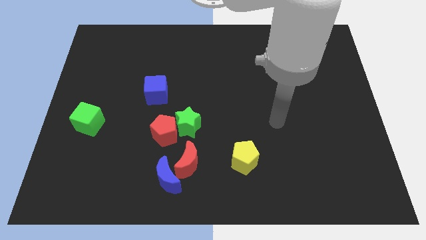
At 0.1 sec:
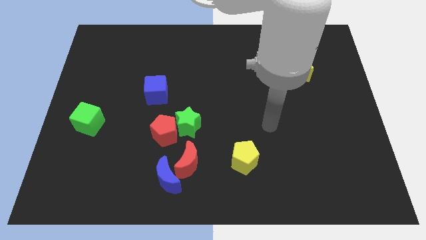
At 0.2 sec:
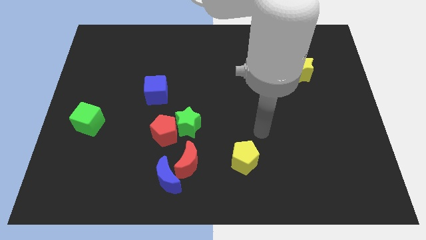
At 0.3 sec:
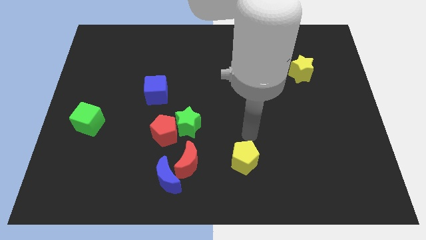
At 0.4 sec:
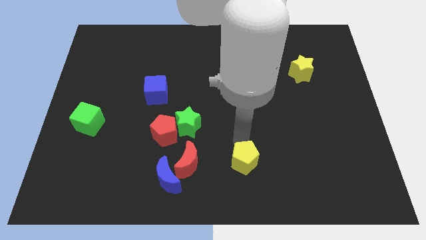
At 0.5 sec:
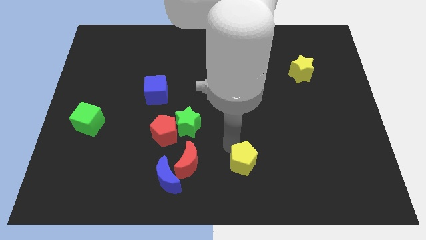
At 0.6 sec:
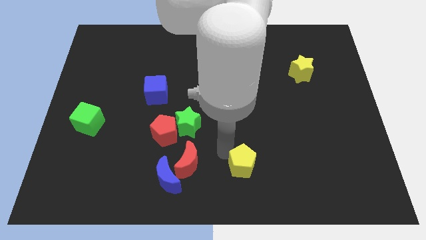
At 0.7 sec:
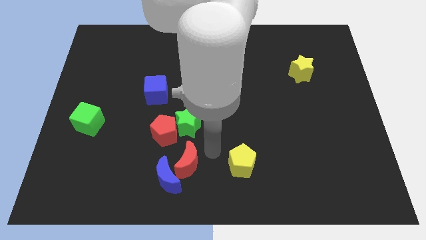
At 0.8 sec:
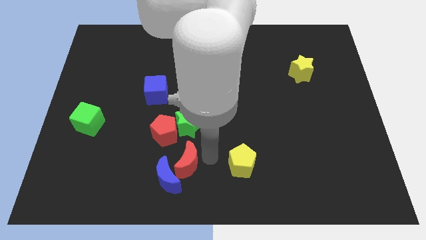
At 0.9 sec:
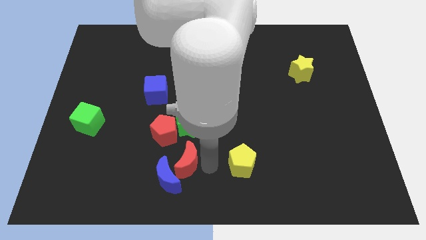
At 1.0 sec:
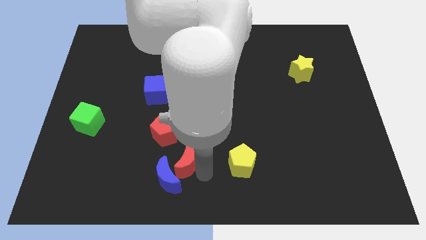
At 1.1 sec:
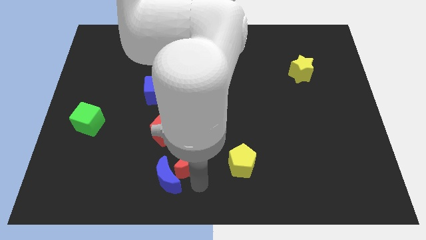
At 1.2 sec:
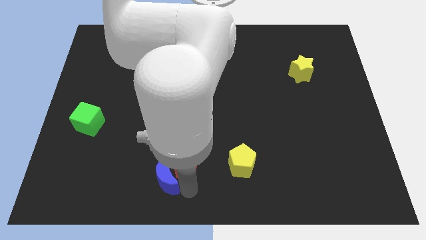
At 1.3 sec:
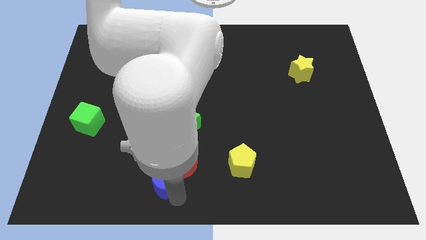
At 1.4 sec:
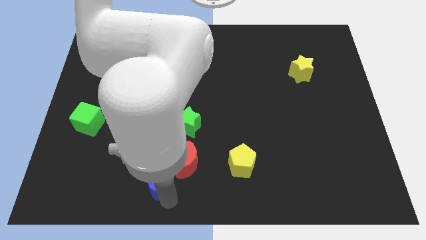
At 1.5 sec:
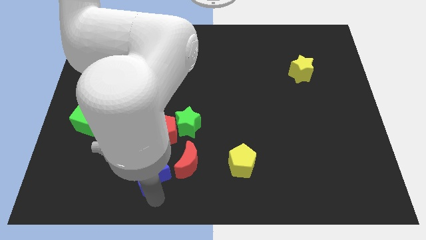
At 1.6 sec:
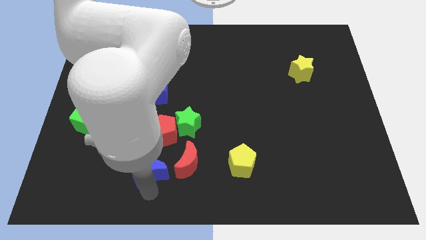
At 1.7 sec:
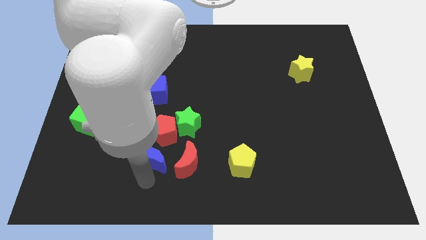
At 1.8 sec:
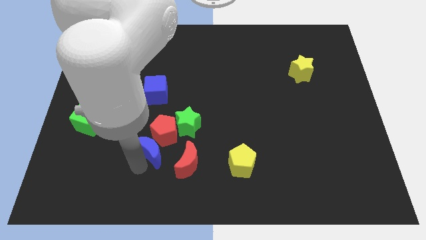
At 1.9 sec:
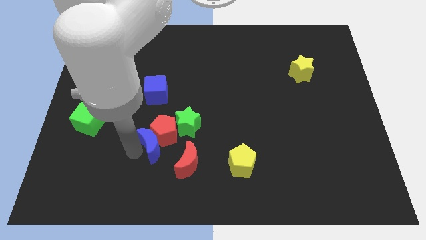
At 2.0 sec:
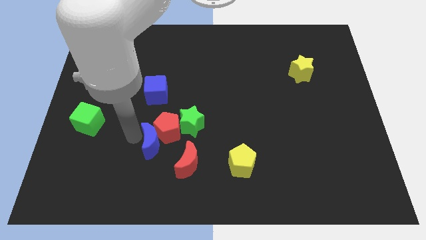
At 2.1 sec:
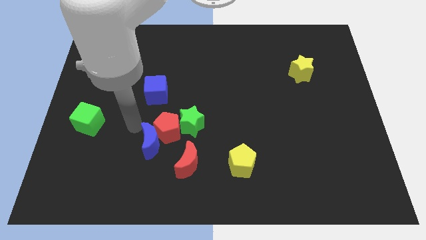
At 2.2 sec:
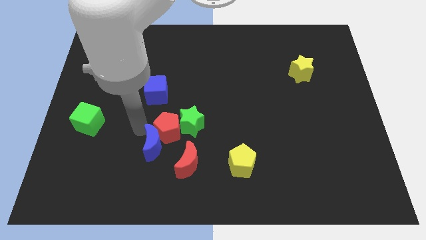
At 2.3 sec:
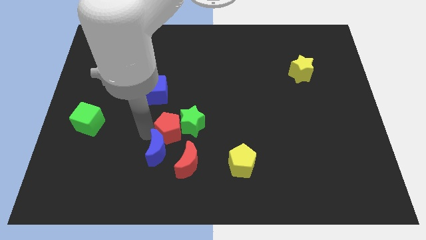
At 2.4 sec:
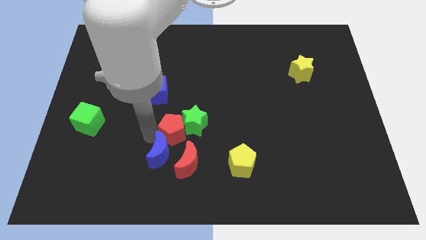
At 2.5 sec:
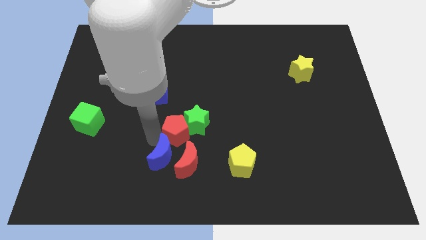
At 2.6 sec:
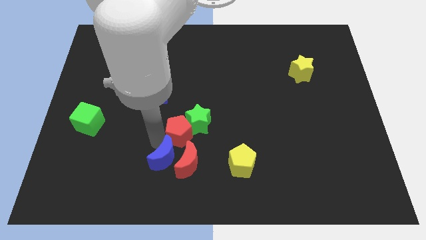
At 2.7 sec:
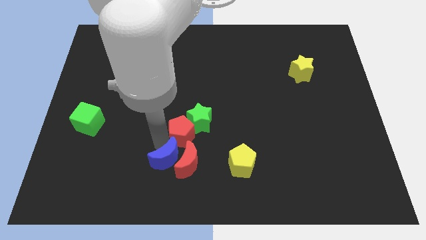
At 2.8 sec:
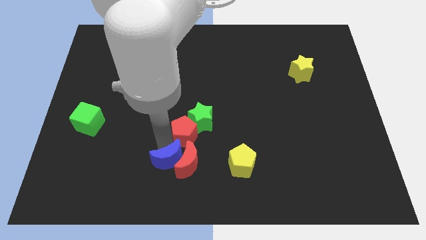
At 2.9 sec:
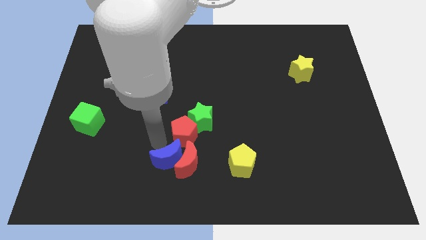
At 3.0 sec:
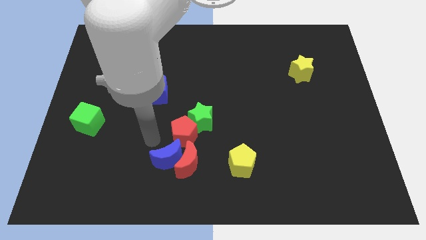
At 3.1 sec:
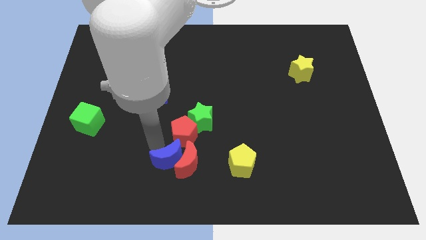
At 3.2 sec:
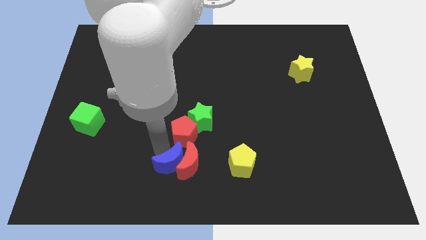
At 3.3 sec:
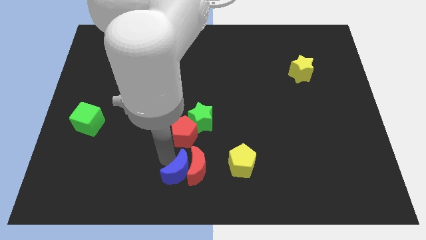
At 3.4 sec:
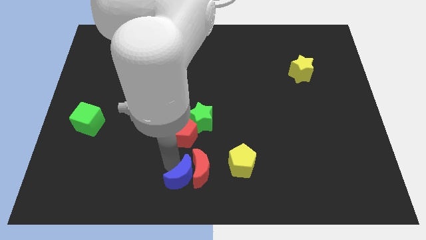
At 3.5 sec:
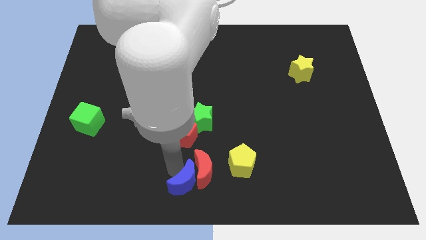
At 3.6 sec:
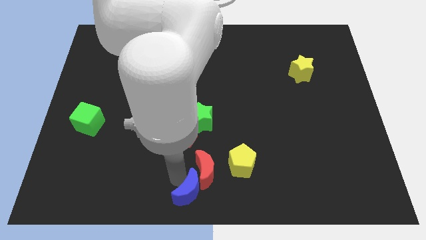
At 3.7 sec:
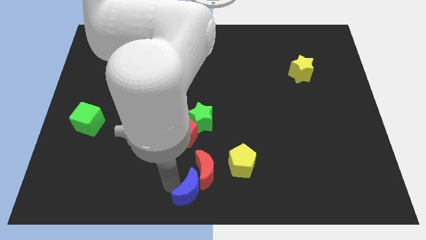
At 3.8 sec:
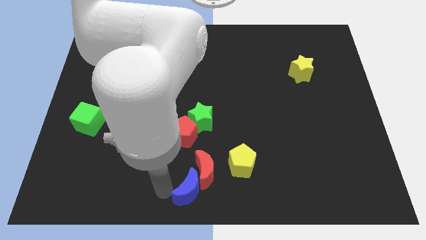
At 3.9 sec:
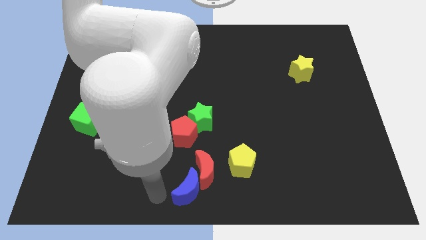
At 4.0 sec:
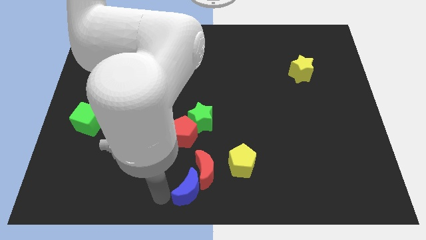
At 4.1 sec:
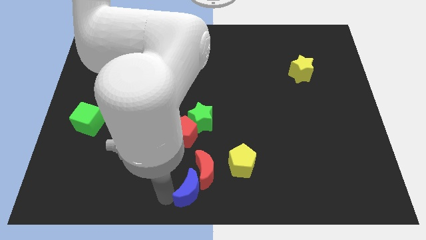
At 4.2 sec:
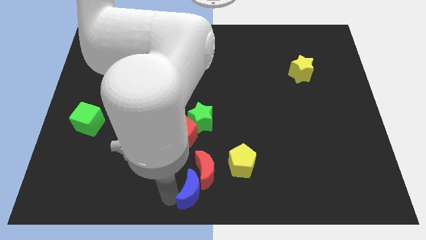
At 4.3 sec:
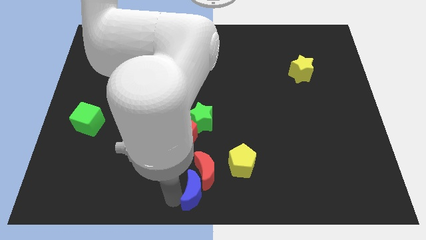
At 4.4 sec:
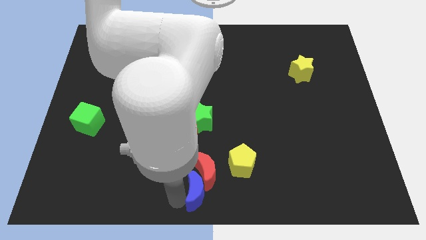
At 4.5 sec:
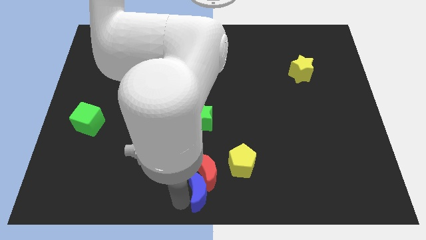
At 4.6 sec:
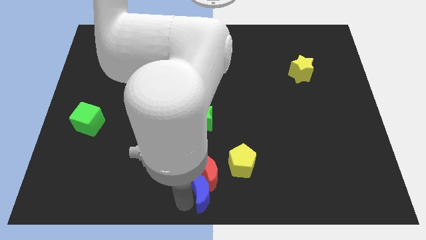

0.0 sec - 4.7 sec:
slide the blue moon right a little bit

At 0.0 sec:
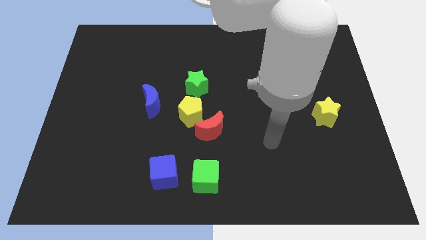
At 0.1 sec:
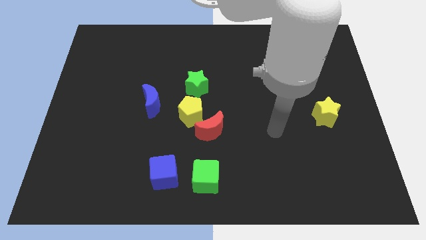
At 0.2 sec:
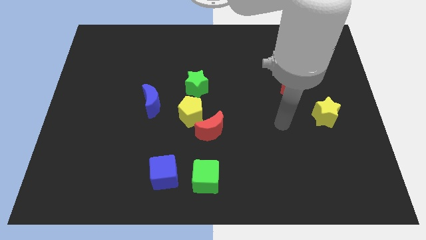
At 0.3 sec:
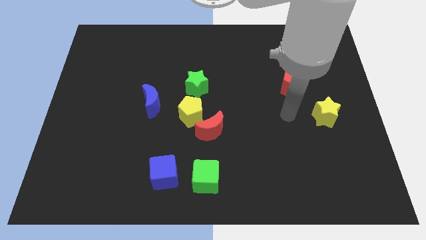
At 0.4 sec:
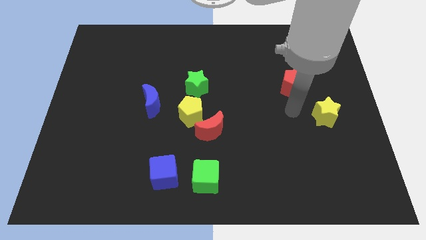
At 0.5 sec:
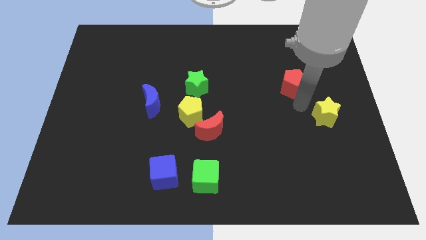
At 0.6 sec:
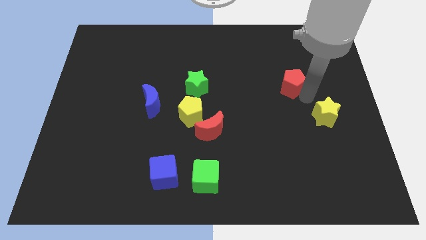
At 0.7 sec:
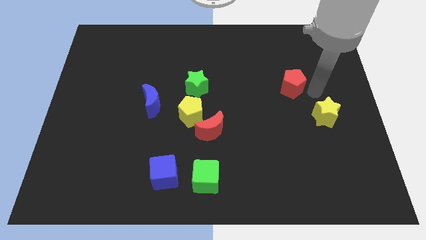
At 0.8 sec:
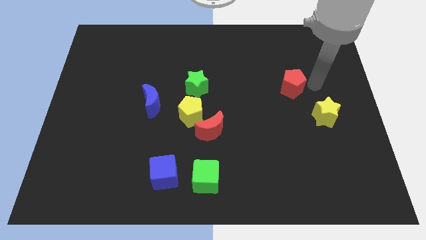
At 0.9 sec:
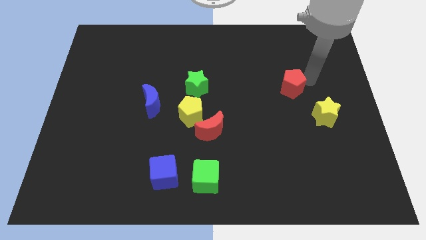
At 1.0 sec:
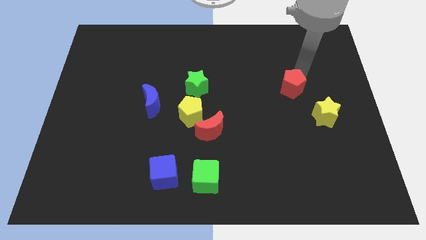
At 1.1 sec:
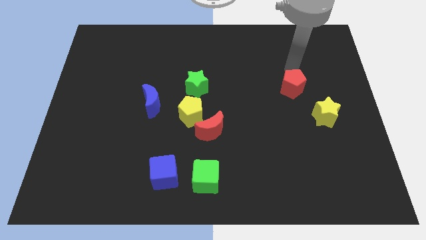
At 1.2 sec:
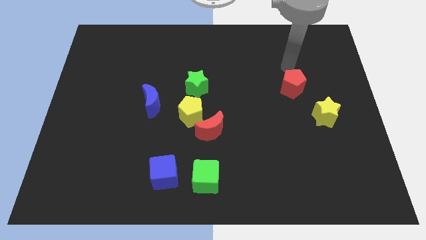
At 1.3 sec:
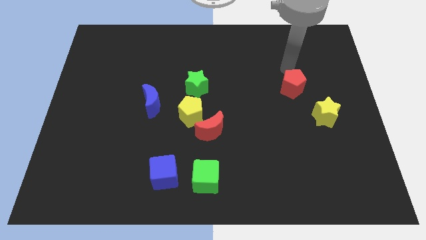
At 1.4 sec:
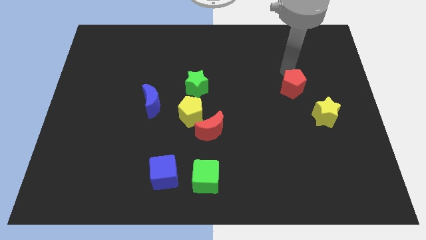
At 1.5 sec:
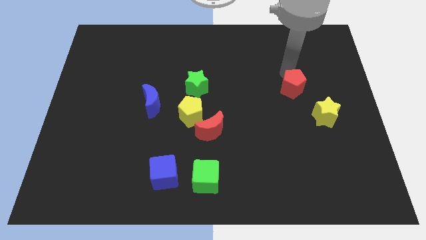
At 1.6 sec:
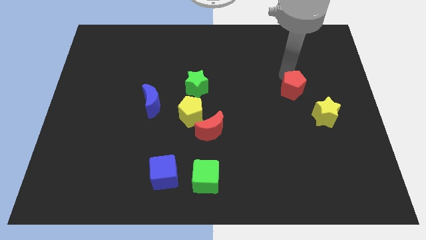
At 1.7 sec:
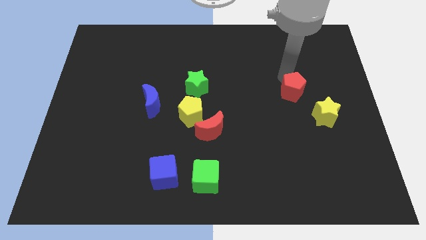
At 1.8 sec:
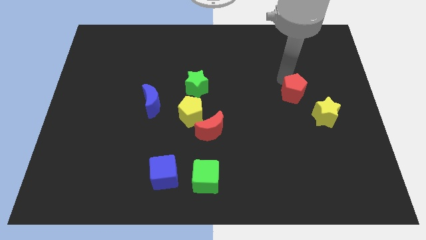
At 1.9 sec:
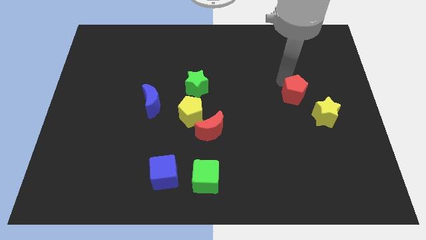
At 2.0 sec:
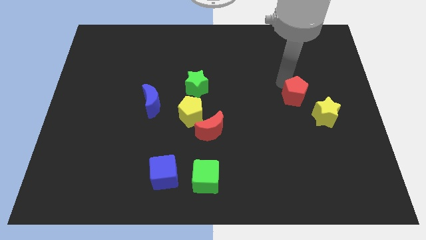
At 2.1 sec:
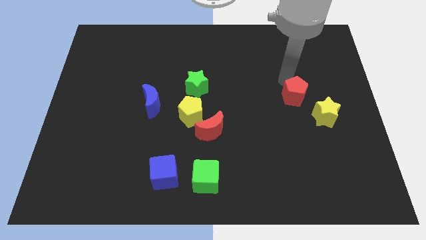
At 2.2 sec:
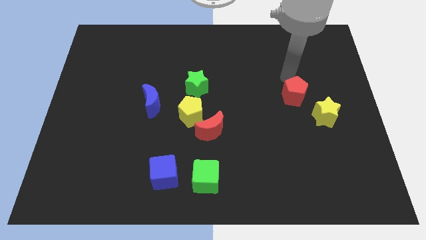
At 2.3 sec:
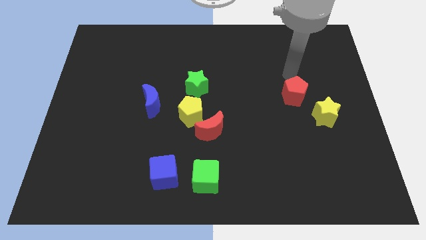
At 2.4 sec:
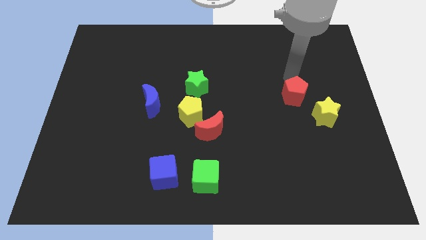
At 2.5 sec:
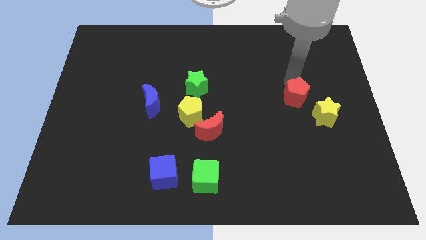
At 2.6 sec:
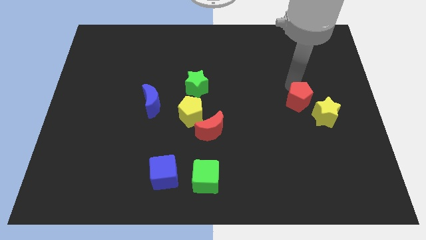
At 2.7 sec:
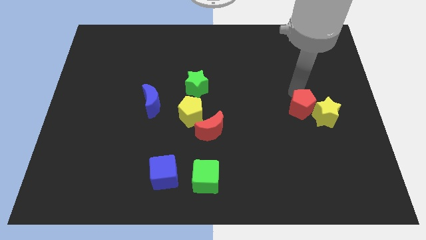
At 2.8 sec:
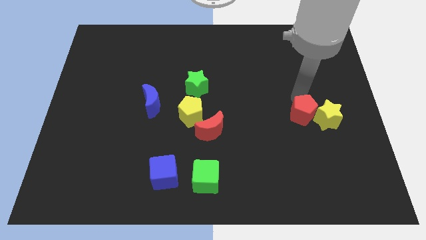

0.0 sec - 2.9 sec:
slide the red pentagon down a bit

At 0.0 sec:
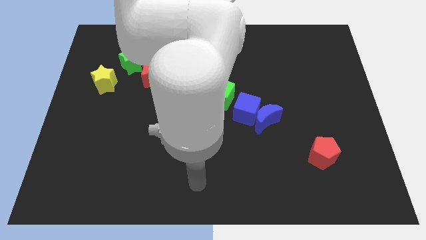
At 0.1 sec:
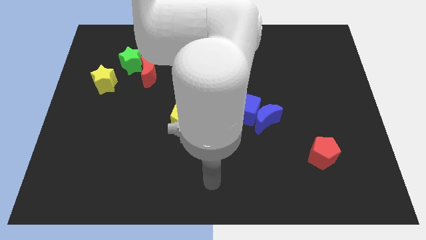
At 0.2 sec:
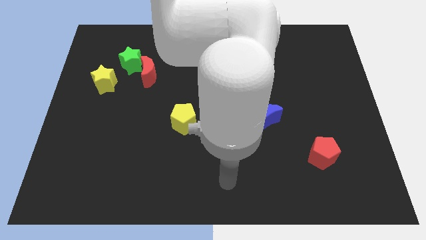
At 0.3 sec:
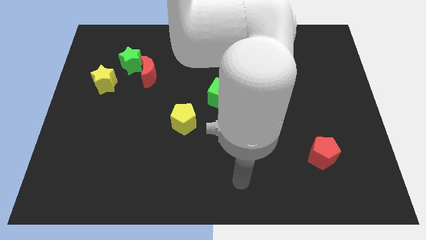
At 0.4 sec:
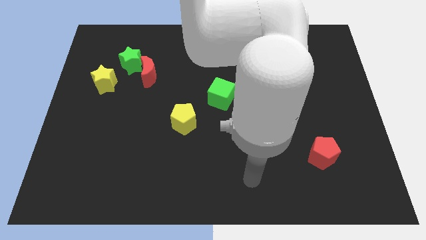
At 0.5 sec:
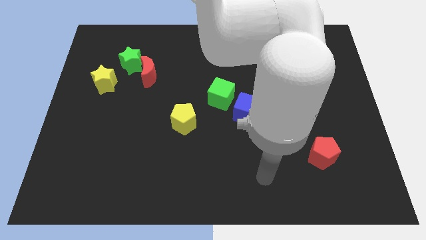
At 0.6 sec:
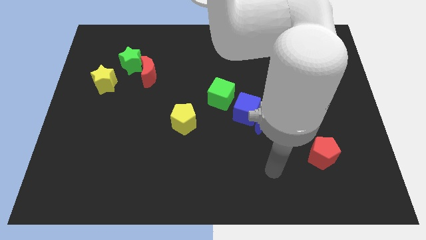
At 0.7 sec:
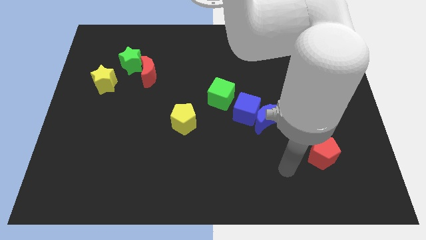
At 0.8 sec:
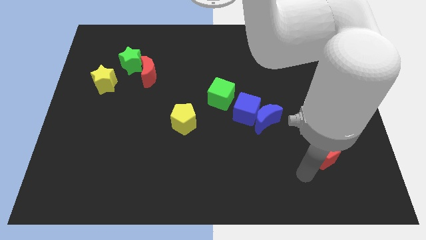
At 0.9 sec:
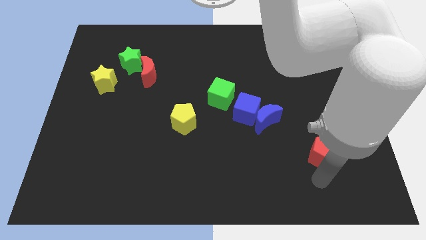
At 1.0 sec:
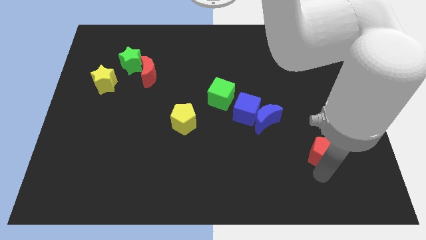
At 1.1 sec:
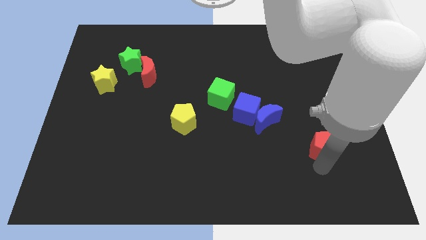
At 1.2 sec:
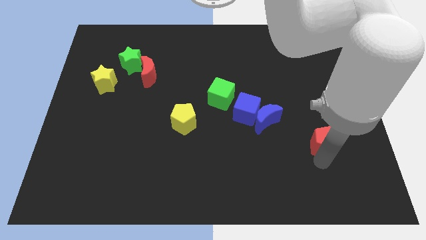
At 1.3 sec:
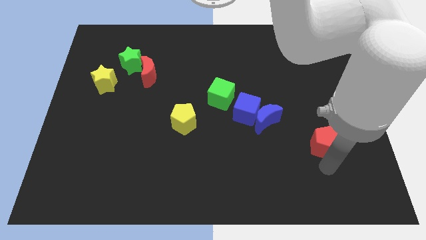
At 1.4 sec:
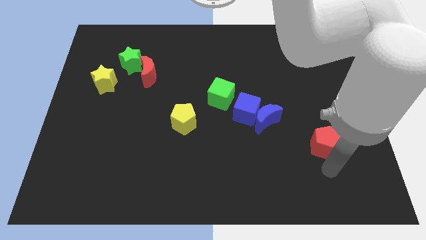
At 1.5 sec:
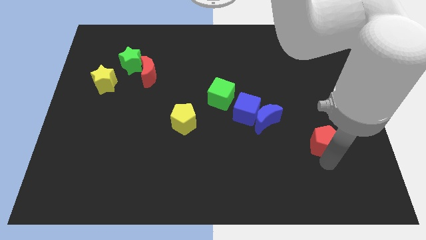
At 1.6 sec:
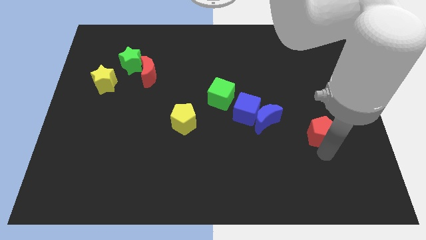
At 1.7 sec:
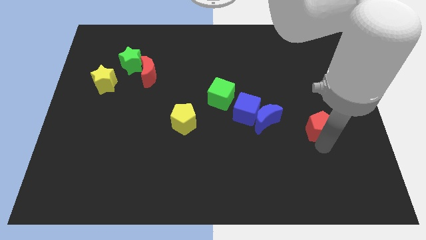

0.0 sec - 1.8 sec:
slightly move the red pentagon up
